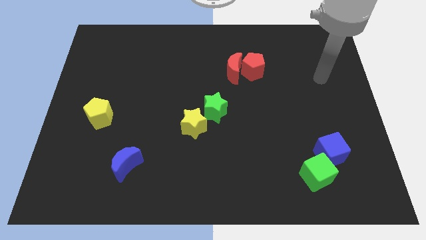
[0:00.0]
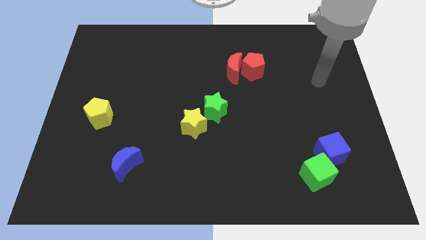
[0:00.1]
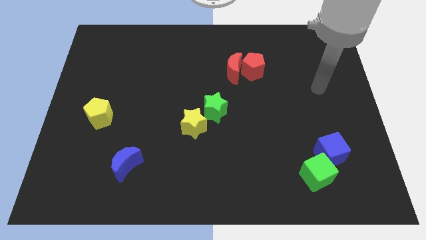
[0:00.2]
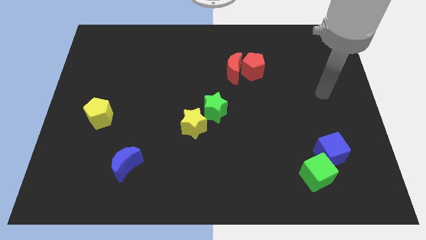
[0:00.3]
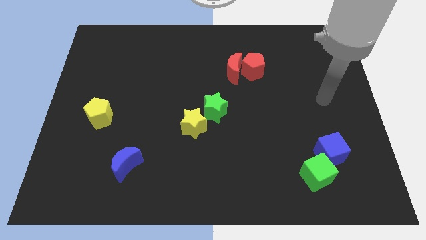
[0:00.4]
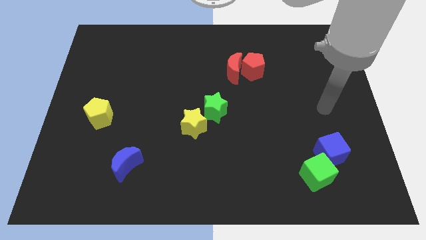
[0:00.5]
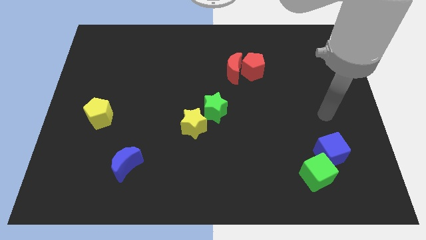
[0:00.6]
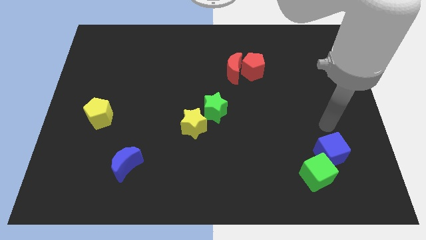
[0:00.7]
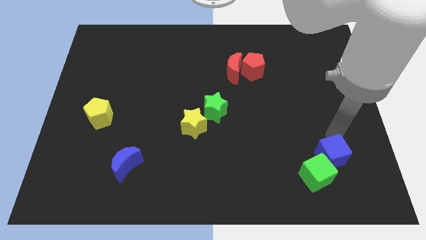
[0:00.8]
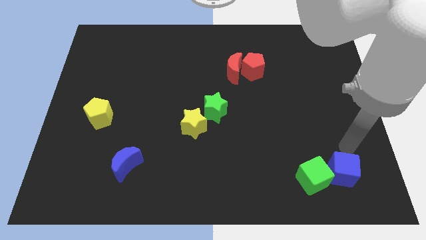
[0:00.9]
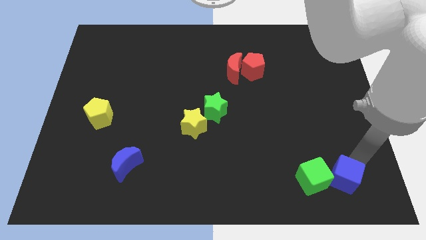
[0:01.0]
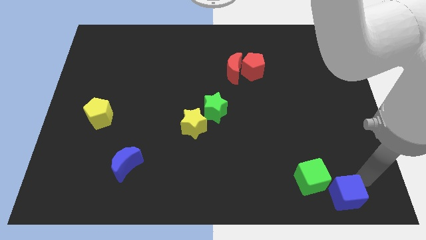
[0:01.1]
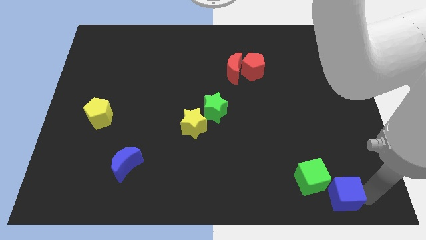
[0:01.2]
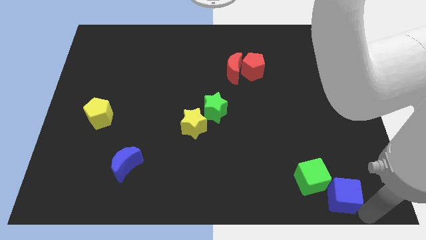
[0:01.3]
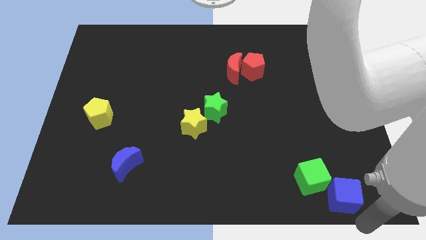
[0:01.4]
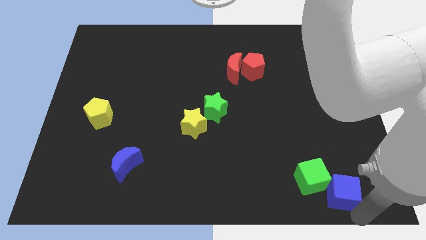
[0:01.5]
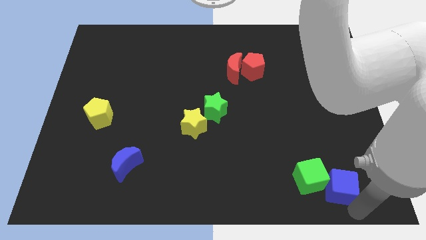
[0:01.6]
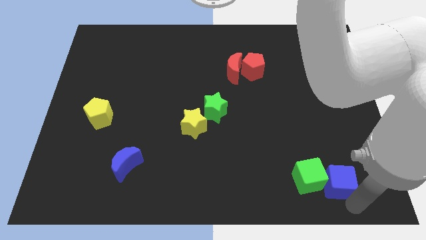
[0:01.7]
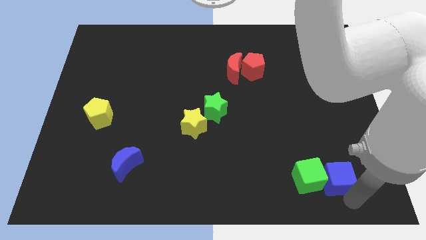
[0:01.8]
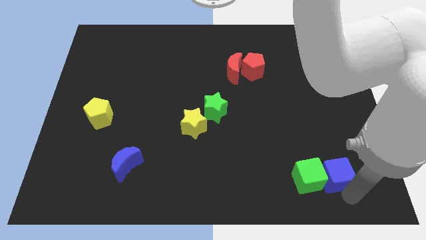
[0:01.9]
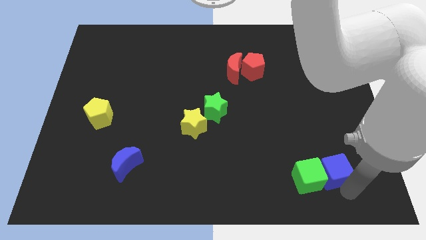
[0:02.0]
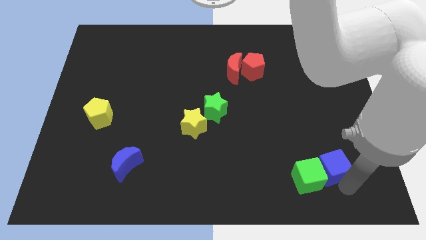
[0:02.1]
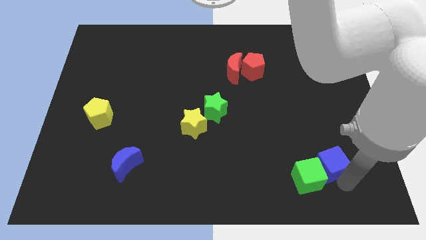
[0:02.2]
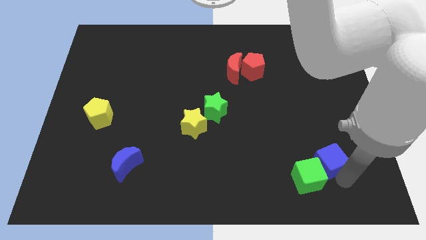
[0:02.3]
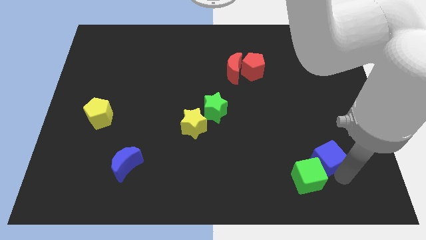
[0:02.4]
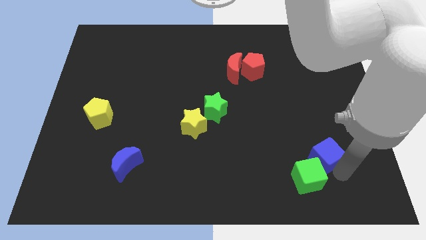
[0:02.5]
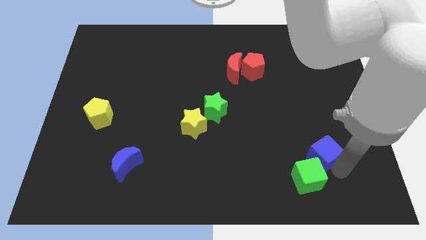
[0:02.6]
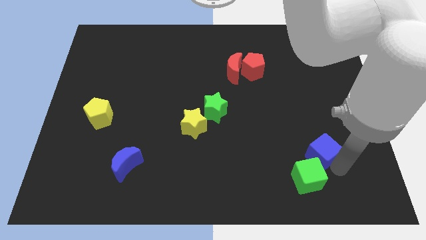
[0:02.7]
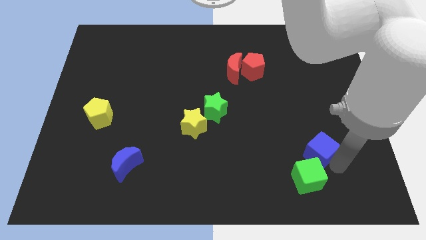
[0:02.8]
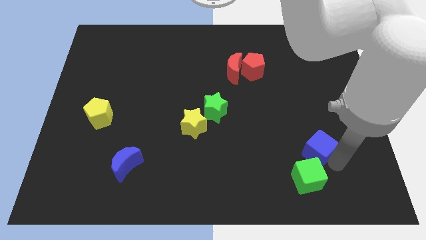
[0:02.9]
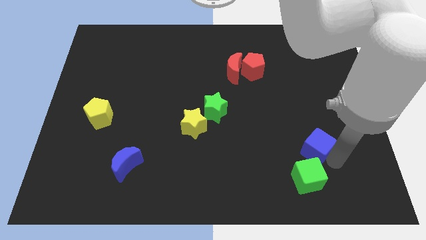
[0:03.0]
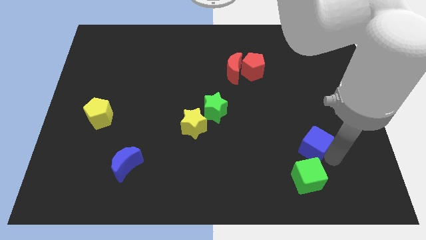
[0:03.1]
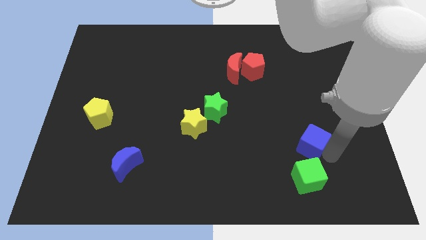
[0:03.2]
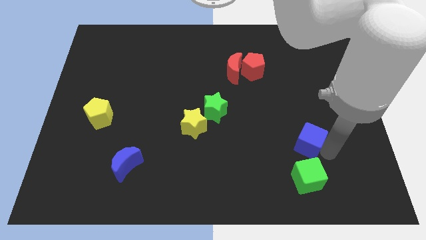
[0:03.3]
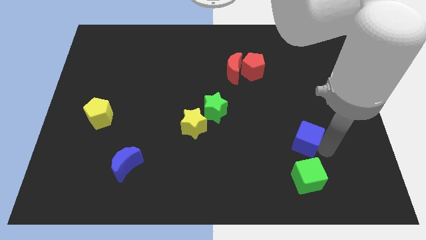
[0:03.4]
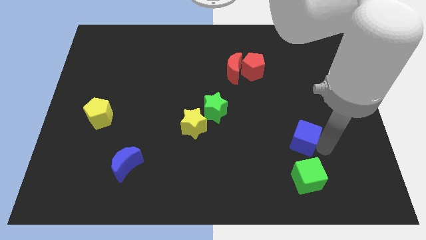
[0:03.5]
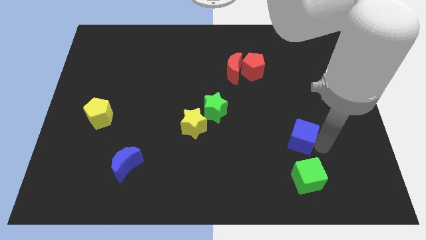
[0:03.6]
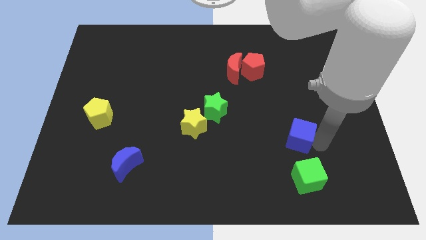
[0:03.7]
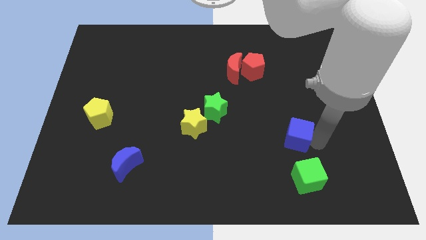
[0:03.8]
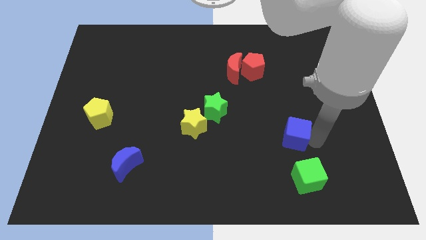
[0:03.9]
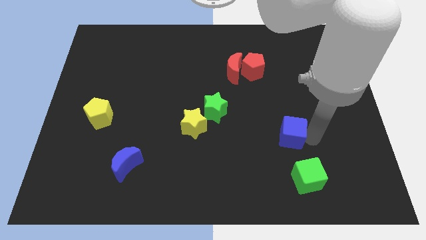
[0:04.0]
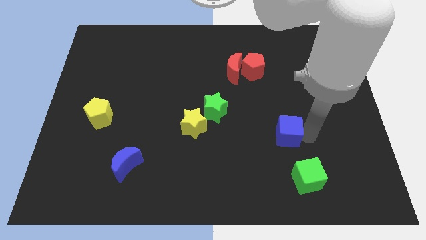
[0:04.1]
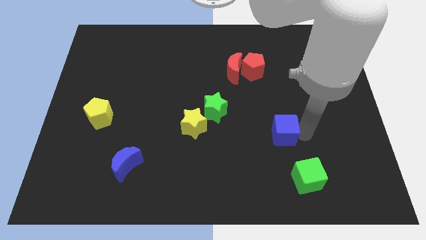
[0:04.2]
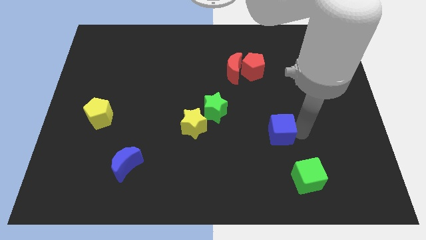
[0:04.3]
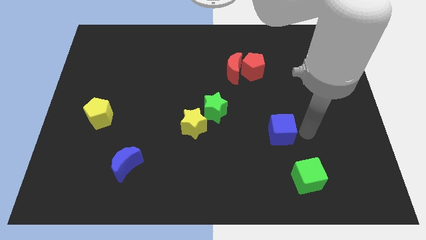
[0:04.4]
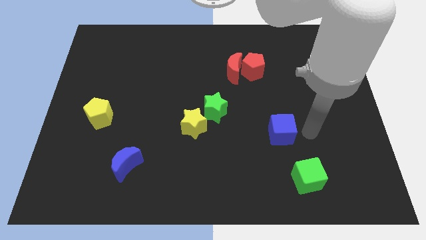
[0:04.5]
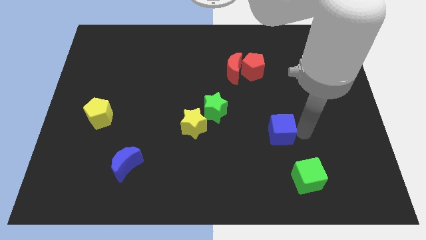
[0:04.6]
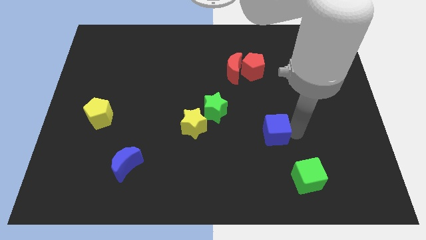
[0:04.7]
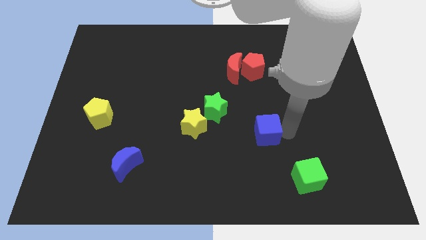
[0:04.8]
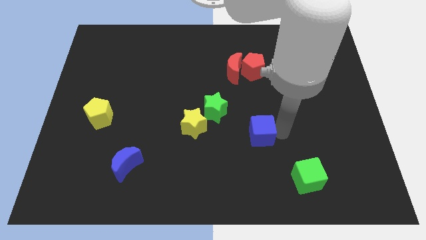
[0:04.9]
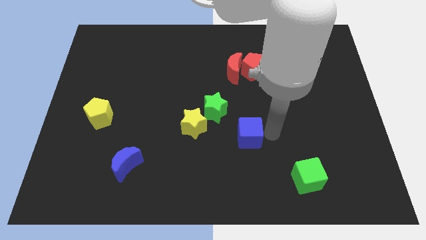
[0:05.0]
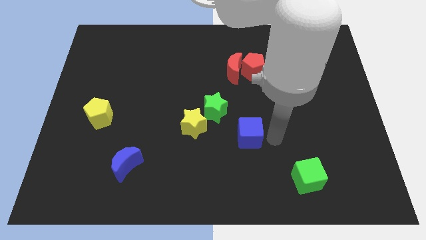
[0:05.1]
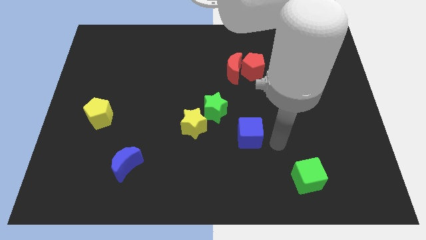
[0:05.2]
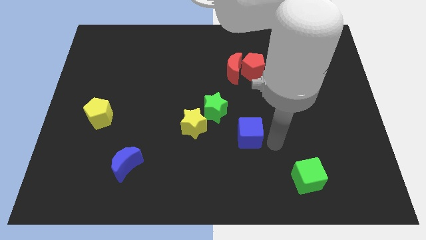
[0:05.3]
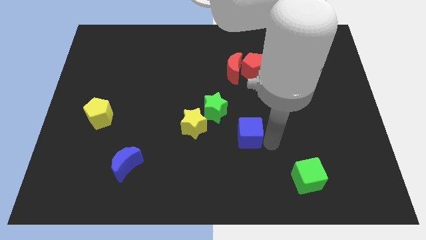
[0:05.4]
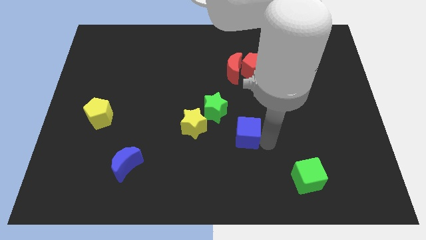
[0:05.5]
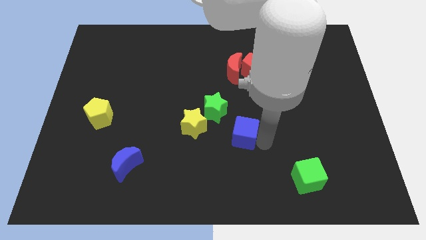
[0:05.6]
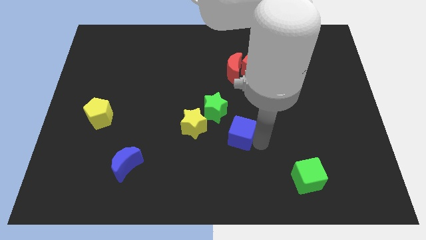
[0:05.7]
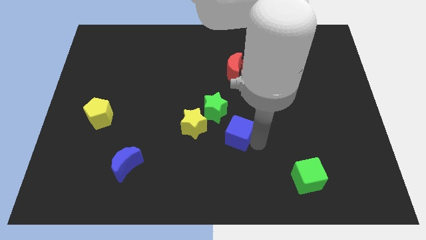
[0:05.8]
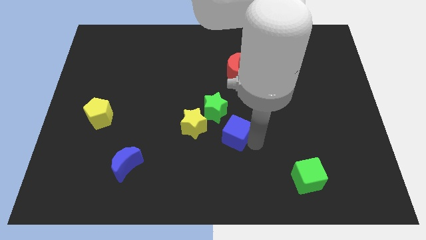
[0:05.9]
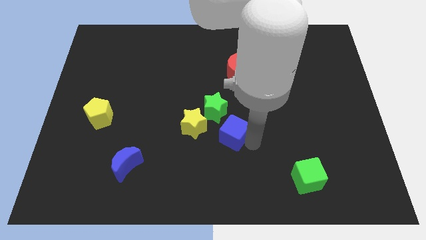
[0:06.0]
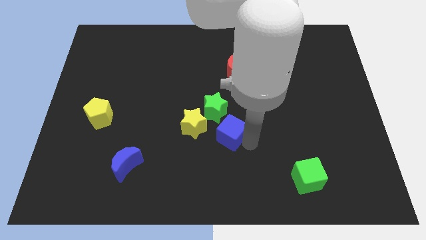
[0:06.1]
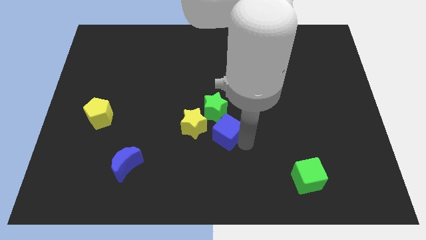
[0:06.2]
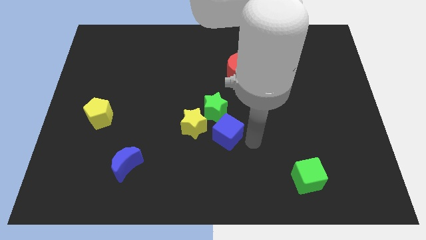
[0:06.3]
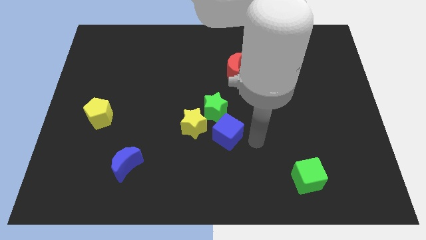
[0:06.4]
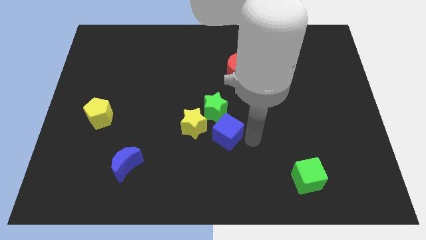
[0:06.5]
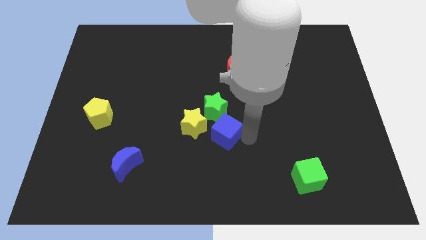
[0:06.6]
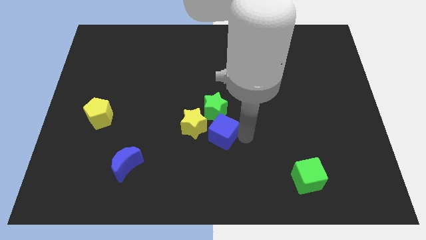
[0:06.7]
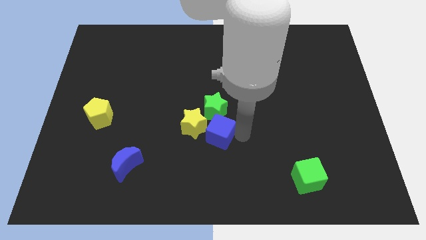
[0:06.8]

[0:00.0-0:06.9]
push the blue cube to the yellow star

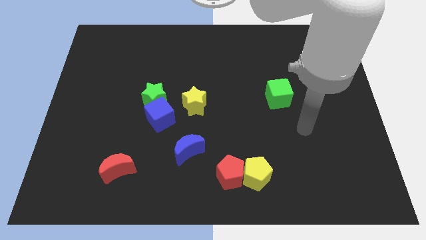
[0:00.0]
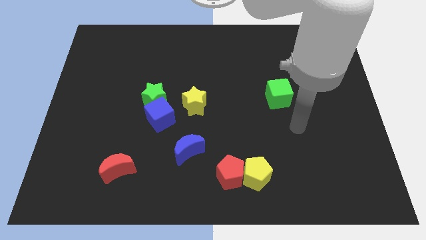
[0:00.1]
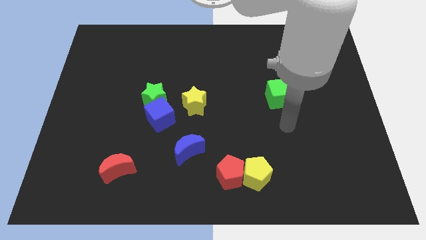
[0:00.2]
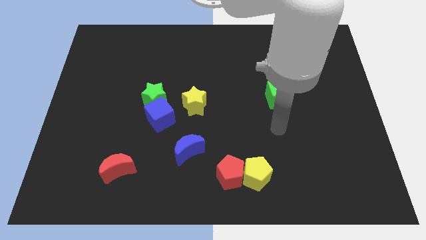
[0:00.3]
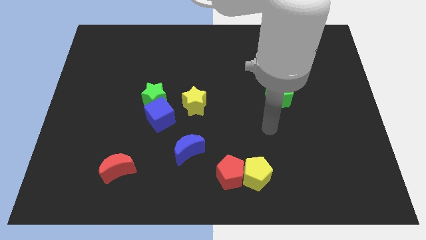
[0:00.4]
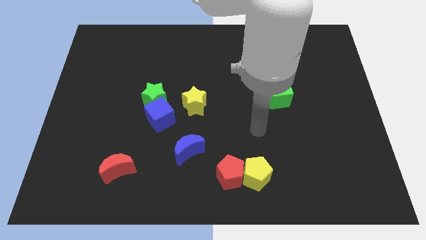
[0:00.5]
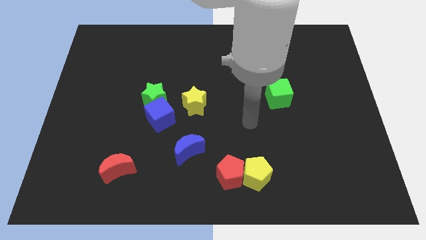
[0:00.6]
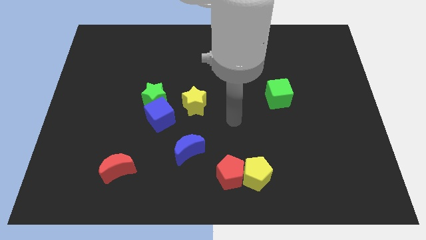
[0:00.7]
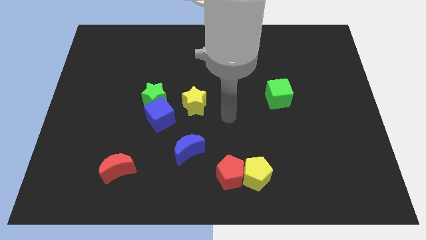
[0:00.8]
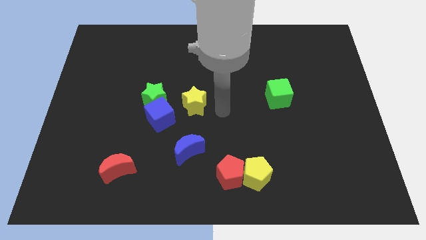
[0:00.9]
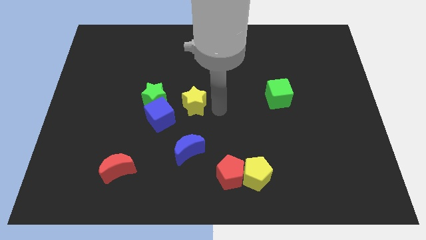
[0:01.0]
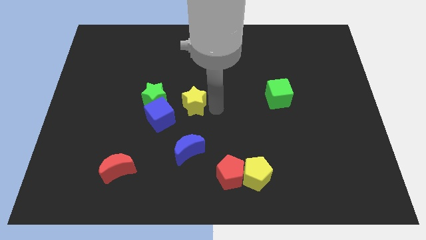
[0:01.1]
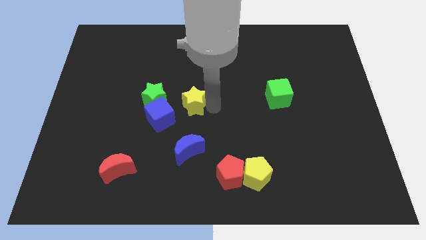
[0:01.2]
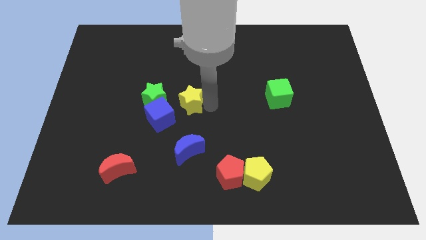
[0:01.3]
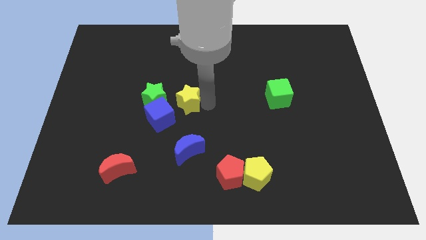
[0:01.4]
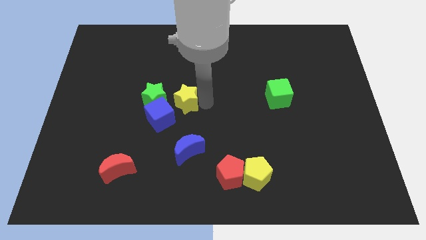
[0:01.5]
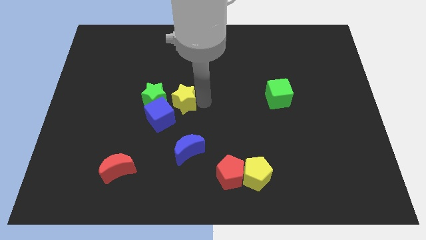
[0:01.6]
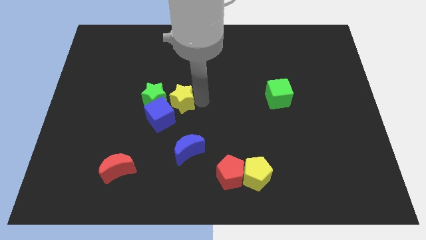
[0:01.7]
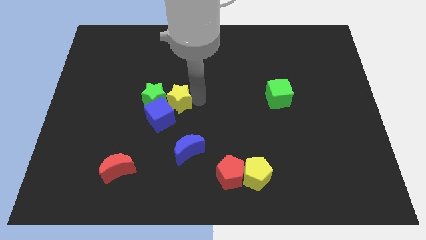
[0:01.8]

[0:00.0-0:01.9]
slide the yellow star towards the green star
